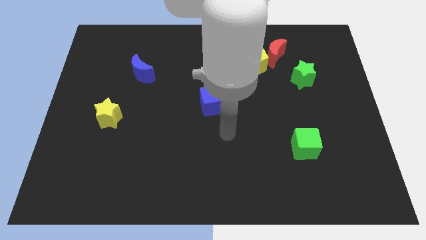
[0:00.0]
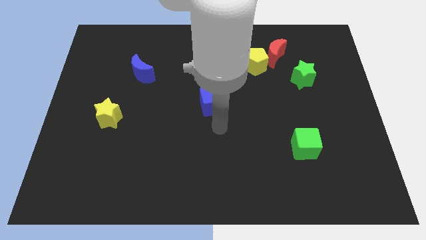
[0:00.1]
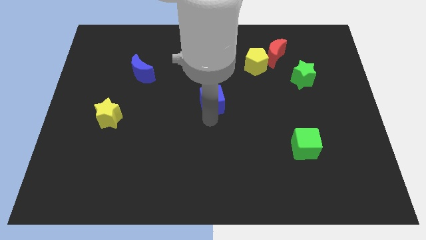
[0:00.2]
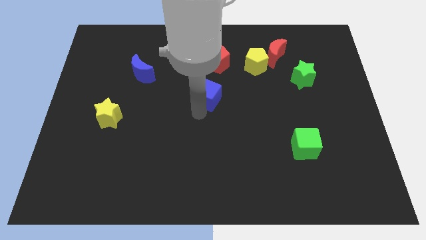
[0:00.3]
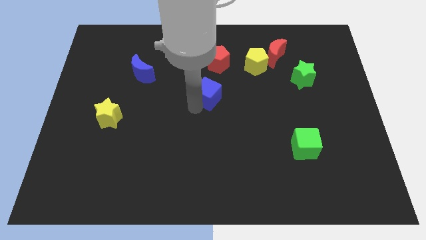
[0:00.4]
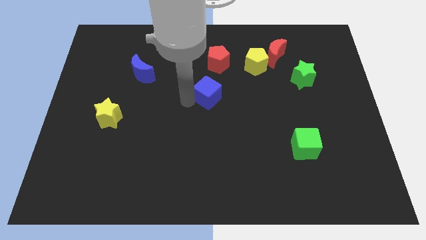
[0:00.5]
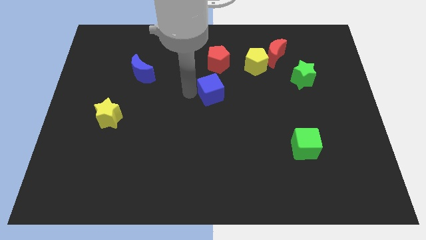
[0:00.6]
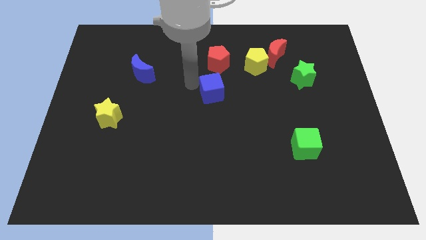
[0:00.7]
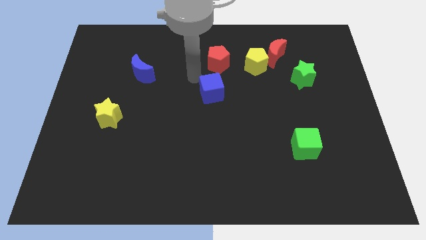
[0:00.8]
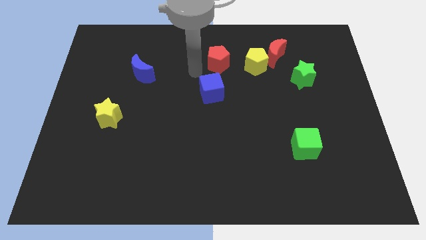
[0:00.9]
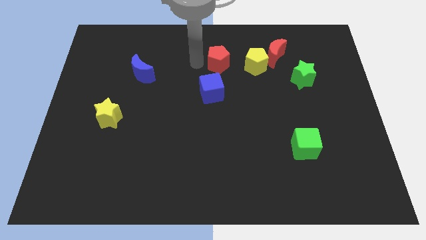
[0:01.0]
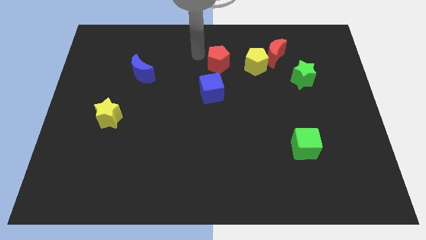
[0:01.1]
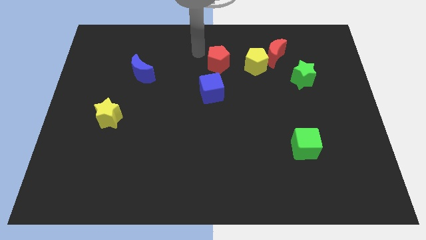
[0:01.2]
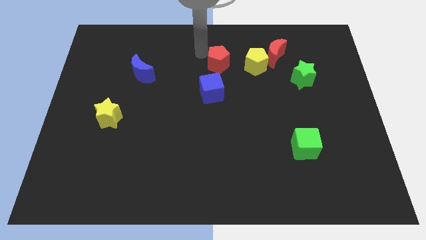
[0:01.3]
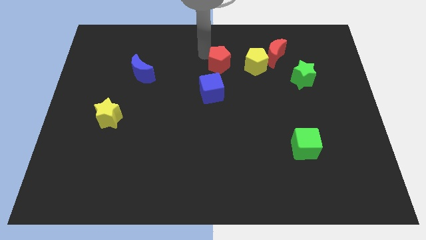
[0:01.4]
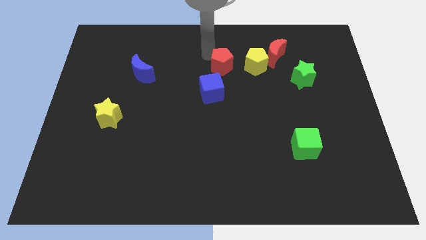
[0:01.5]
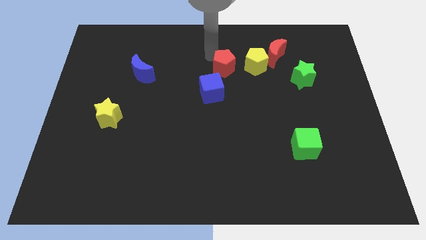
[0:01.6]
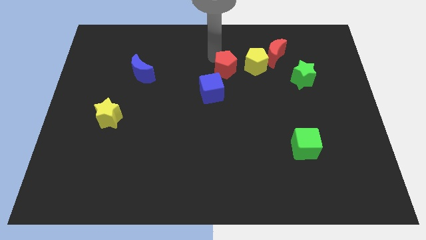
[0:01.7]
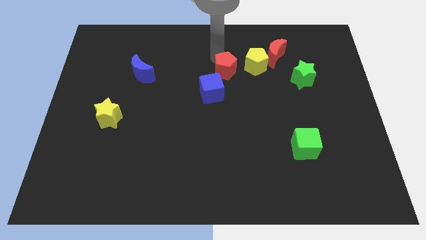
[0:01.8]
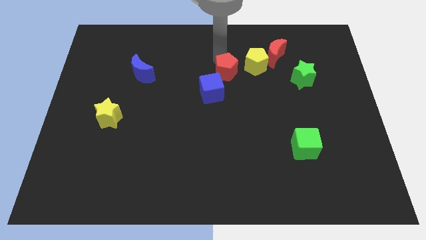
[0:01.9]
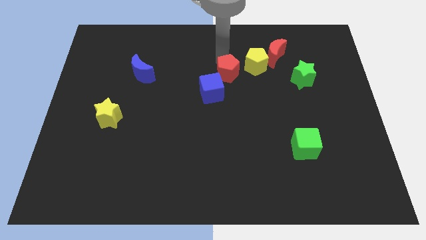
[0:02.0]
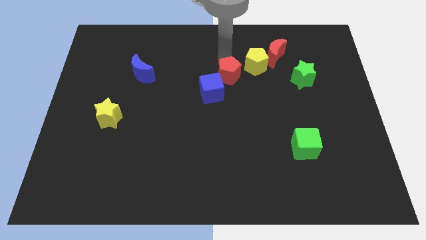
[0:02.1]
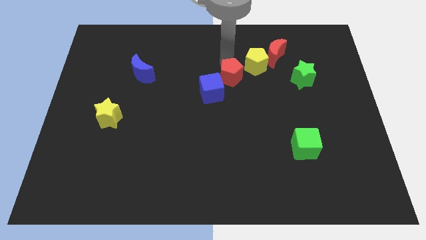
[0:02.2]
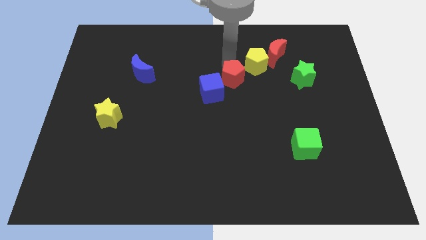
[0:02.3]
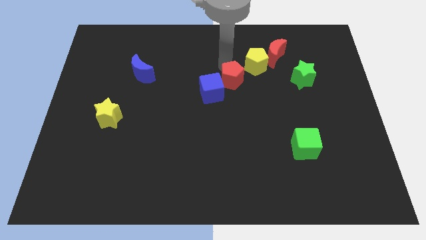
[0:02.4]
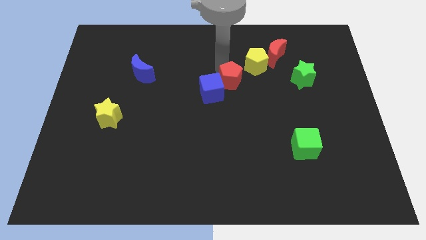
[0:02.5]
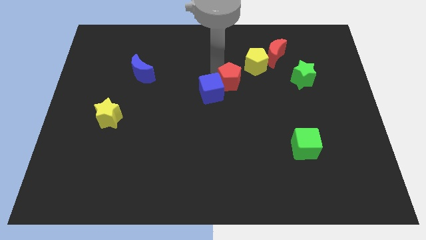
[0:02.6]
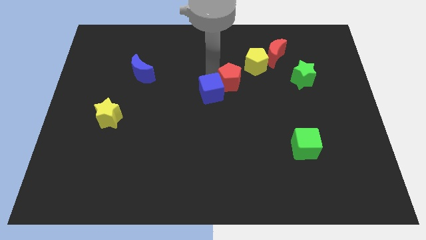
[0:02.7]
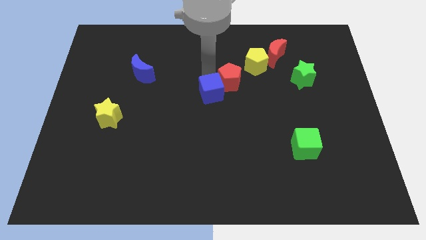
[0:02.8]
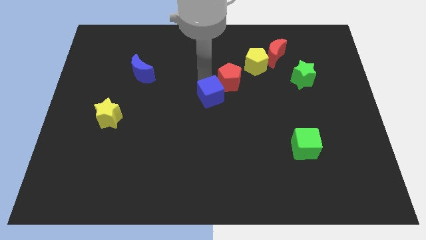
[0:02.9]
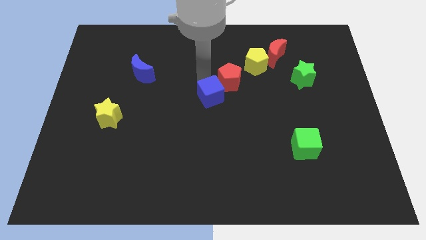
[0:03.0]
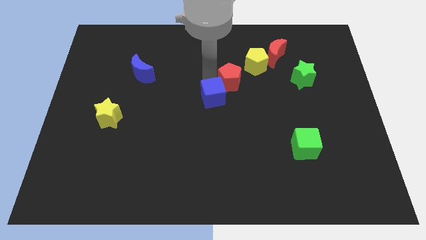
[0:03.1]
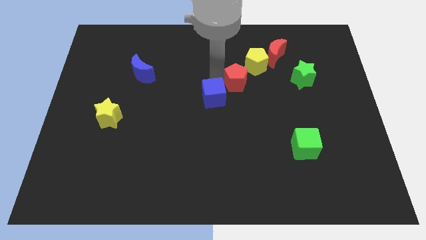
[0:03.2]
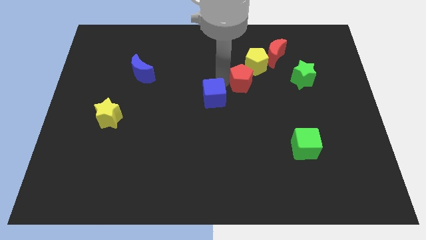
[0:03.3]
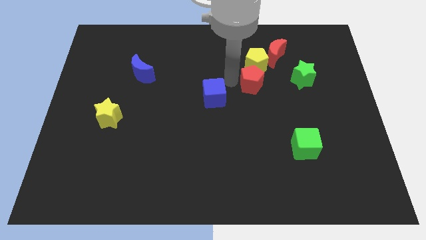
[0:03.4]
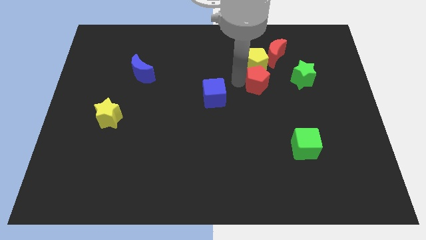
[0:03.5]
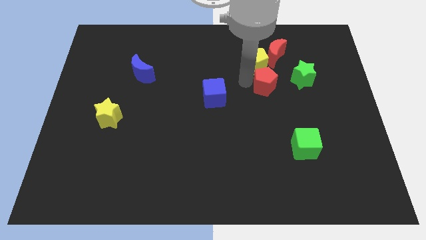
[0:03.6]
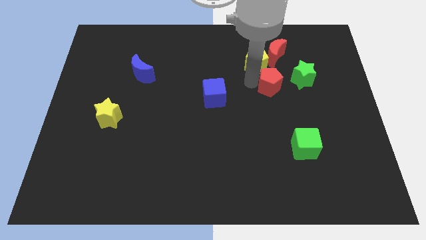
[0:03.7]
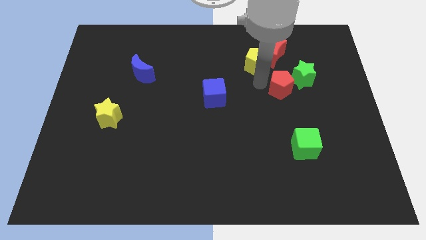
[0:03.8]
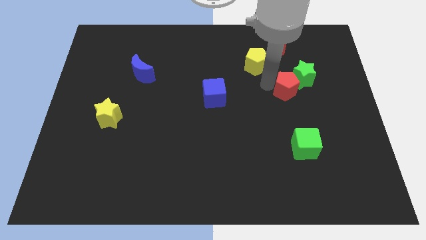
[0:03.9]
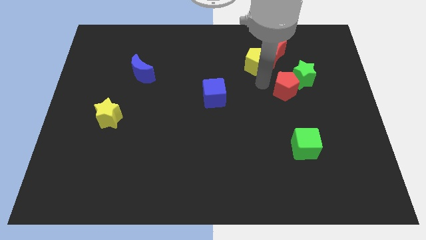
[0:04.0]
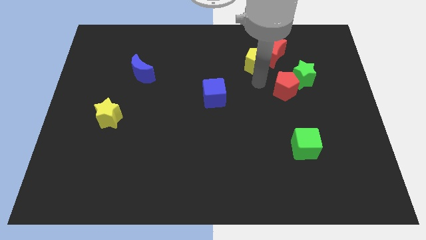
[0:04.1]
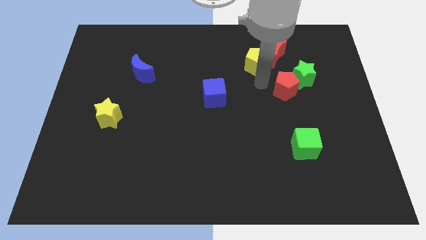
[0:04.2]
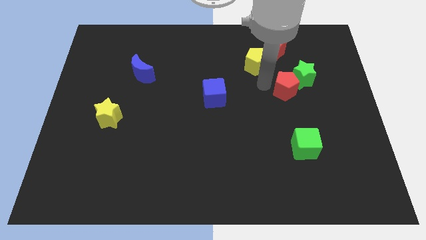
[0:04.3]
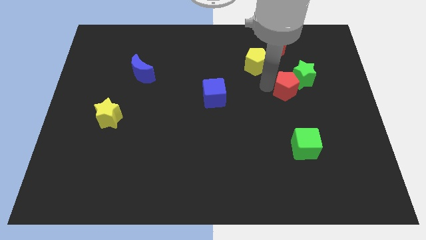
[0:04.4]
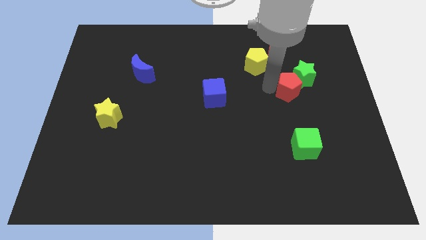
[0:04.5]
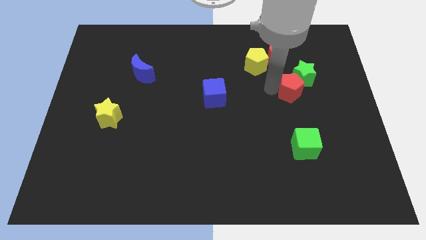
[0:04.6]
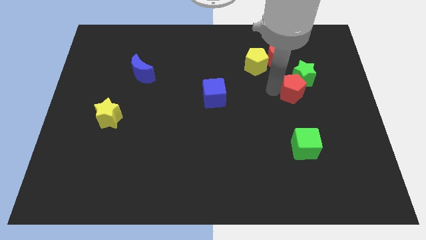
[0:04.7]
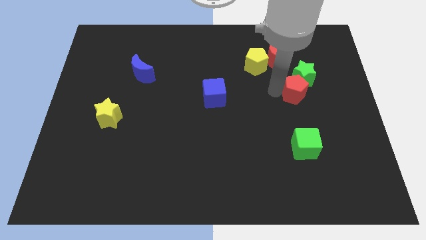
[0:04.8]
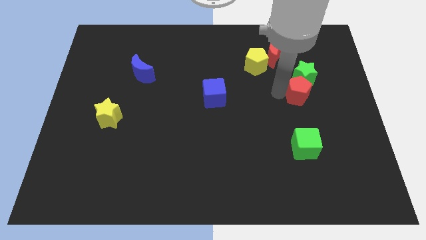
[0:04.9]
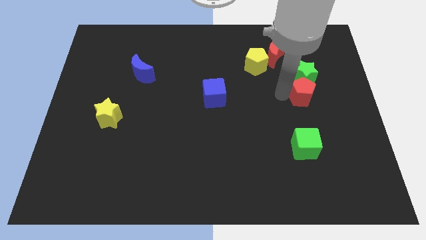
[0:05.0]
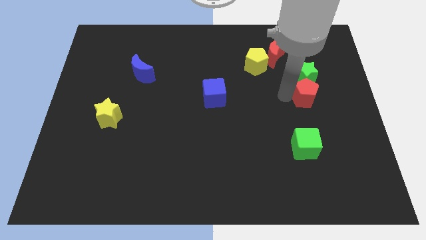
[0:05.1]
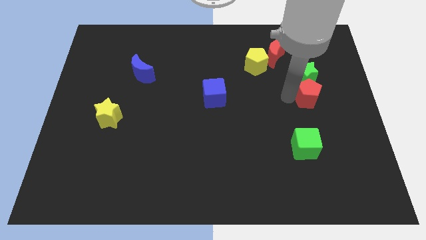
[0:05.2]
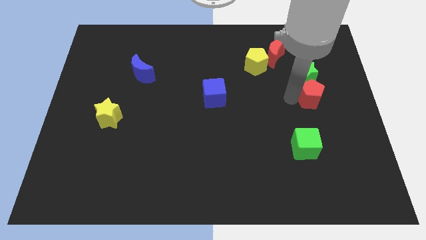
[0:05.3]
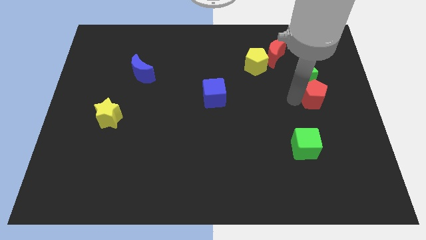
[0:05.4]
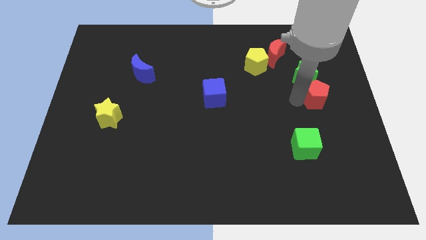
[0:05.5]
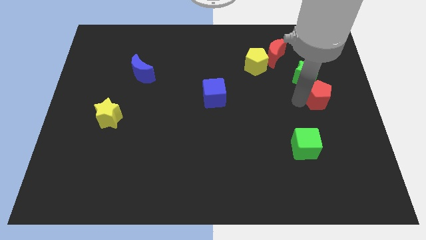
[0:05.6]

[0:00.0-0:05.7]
put the red pentagon to the center right
